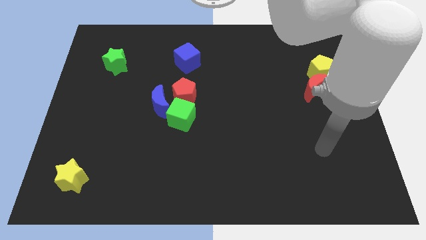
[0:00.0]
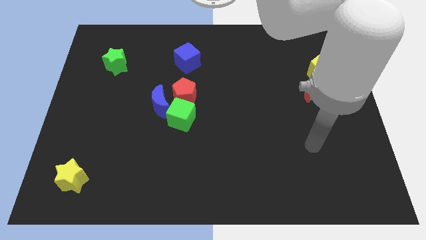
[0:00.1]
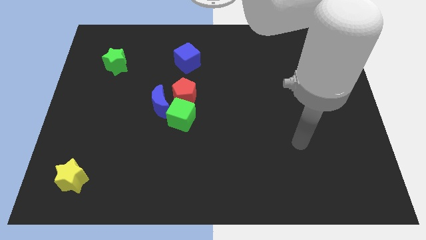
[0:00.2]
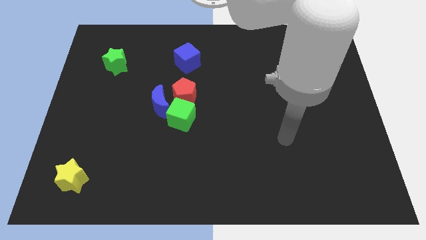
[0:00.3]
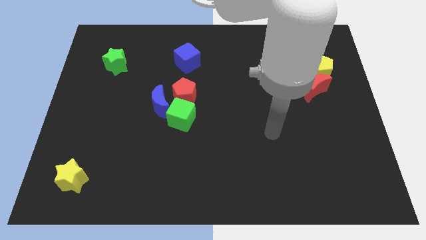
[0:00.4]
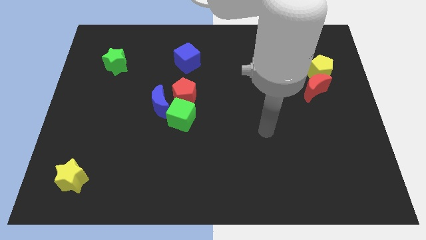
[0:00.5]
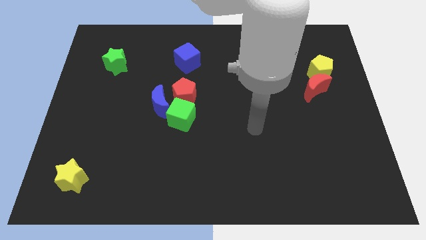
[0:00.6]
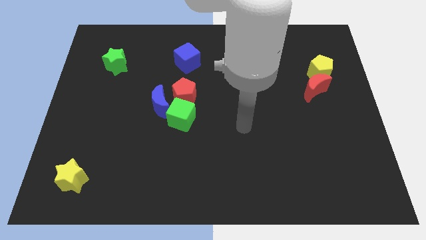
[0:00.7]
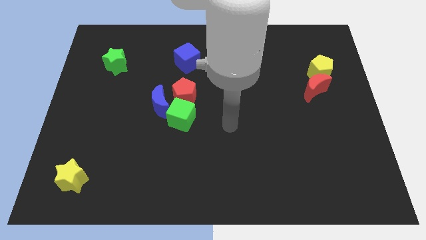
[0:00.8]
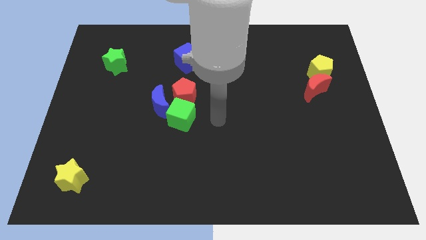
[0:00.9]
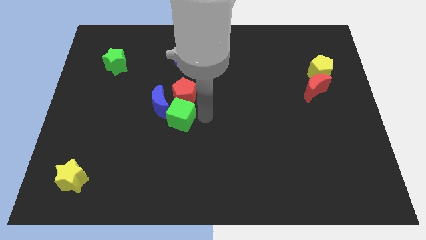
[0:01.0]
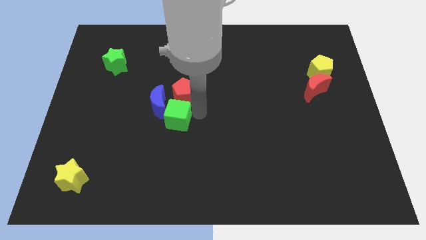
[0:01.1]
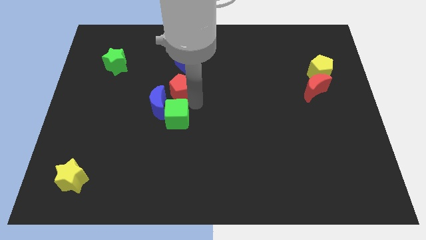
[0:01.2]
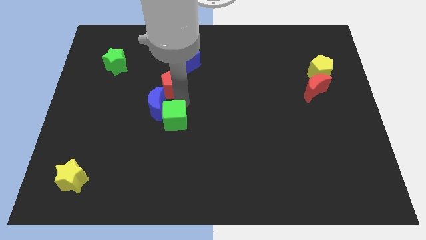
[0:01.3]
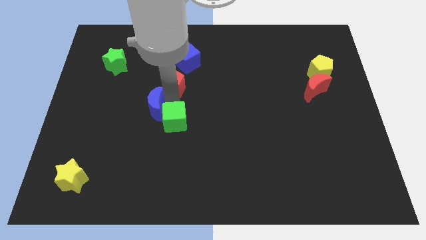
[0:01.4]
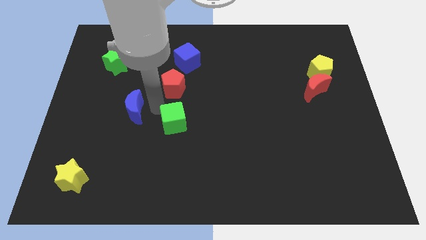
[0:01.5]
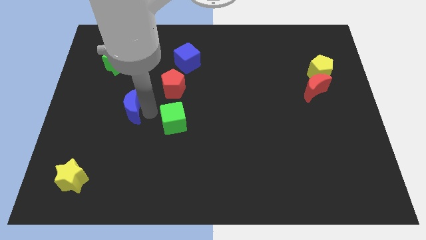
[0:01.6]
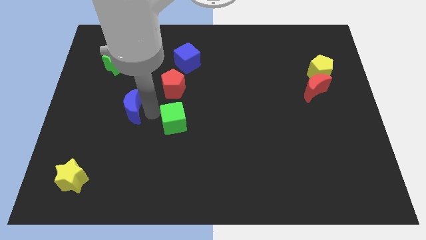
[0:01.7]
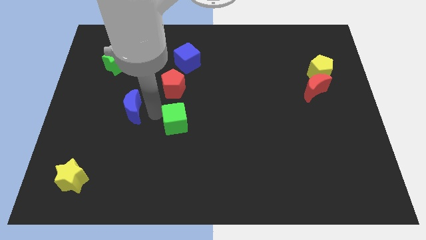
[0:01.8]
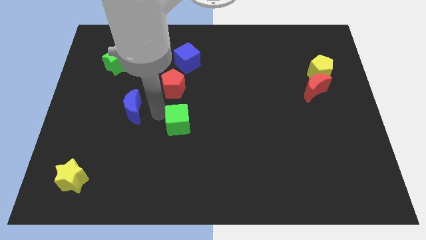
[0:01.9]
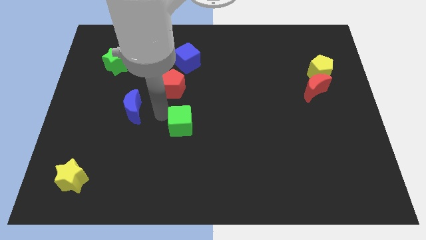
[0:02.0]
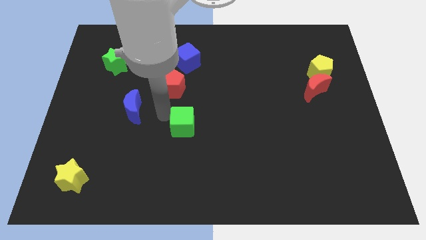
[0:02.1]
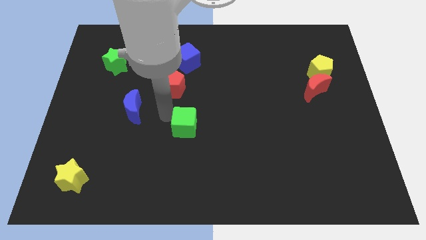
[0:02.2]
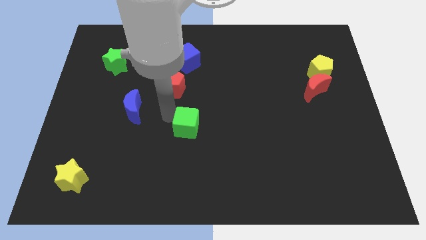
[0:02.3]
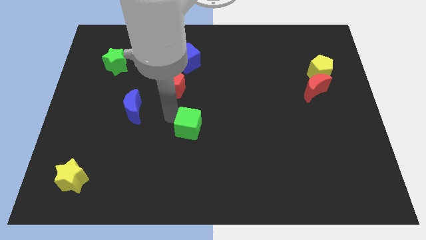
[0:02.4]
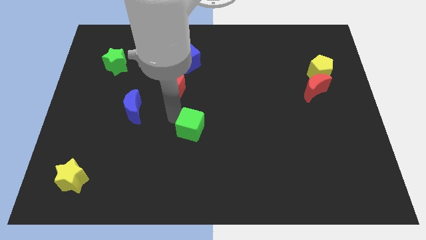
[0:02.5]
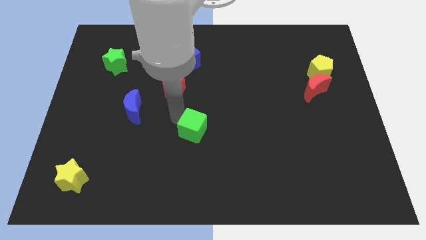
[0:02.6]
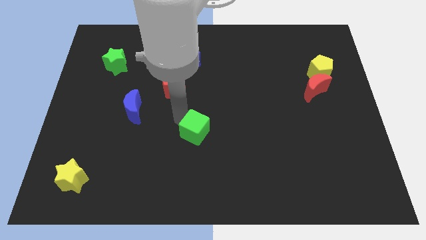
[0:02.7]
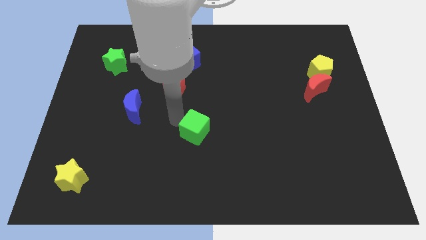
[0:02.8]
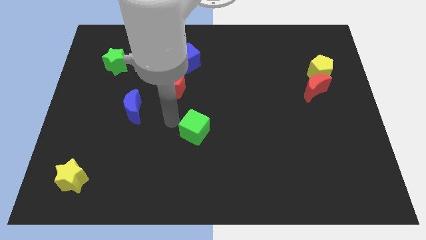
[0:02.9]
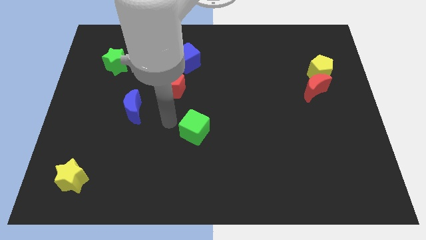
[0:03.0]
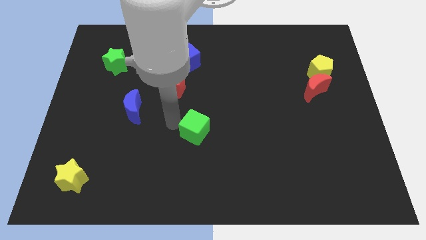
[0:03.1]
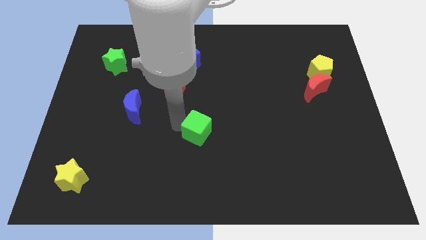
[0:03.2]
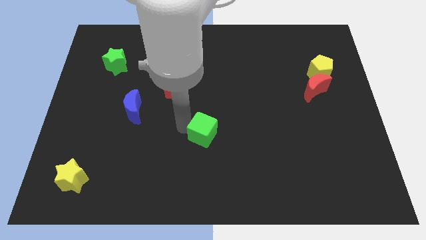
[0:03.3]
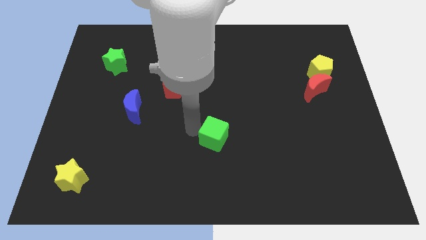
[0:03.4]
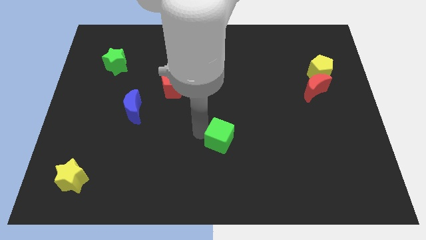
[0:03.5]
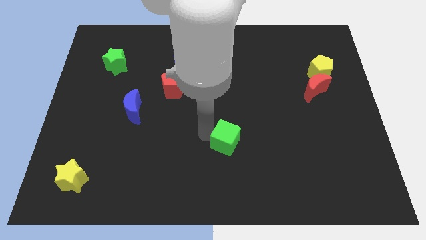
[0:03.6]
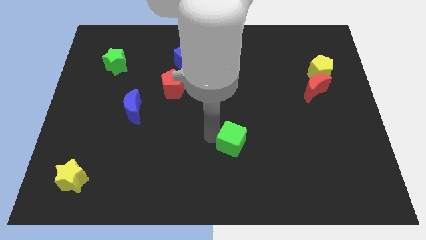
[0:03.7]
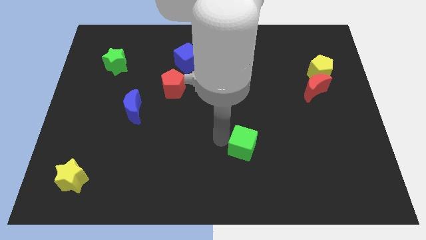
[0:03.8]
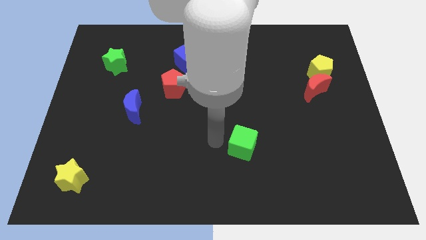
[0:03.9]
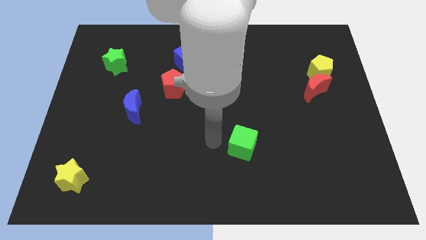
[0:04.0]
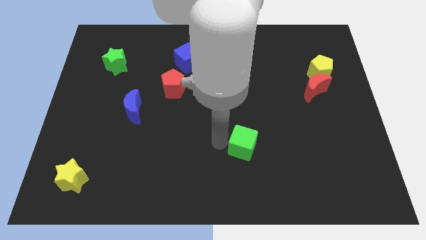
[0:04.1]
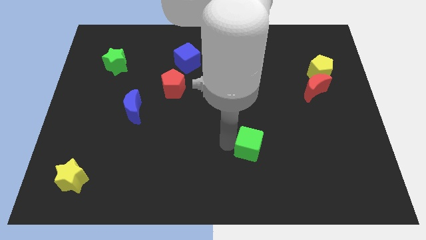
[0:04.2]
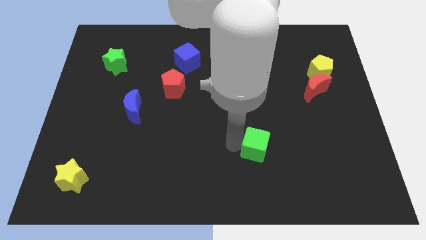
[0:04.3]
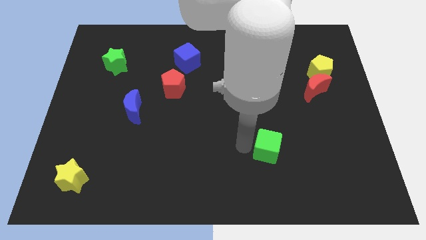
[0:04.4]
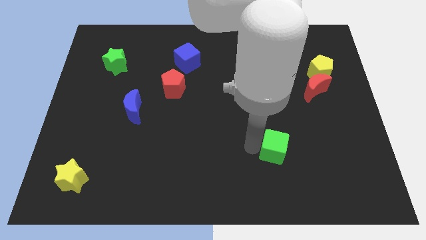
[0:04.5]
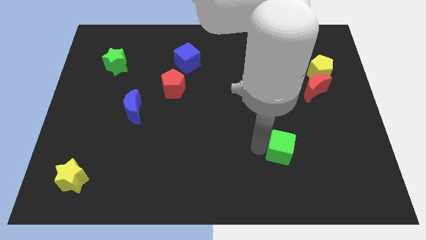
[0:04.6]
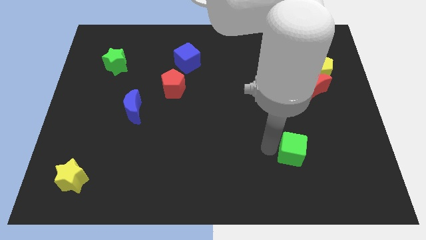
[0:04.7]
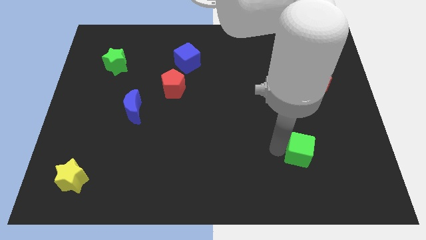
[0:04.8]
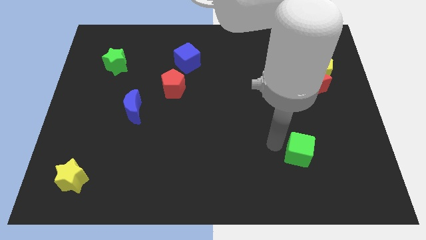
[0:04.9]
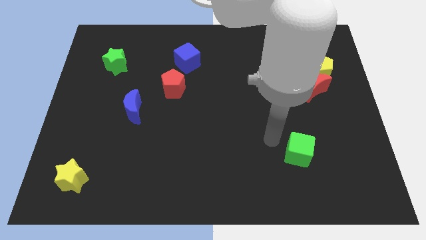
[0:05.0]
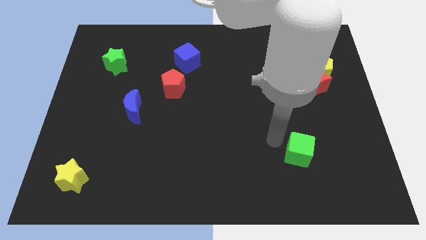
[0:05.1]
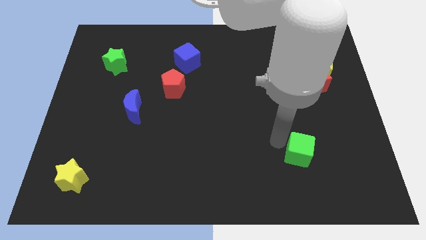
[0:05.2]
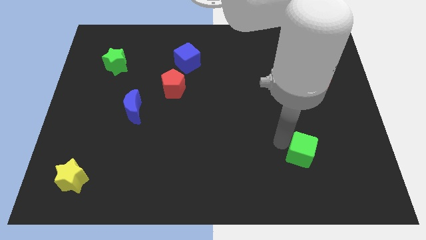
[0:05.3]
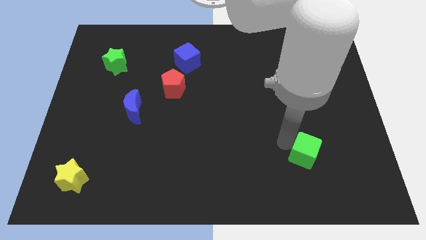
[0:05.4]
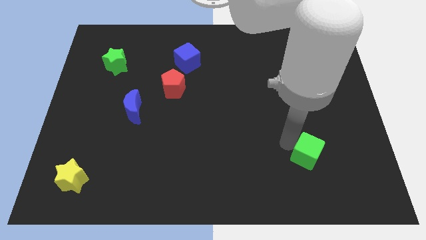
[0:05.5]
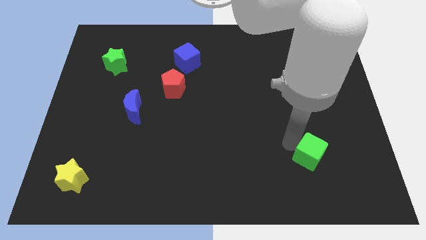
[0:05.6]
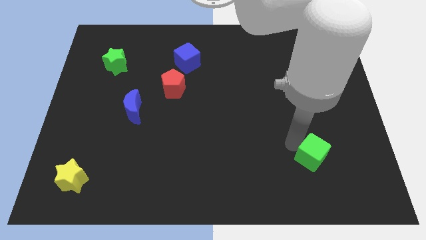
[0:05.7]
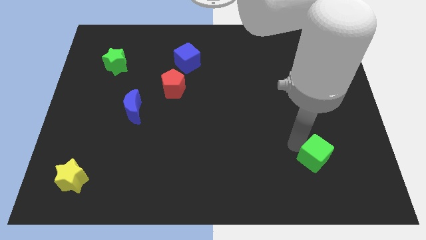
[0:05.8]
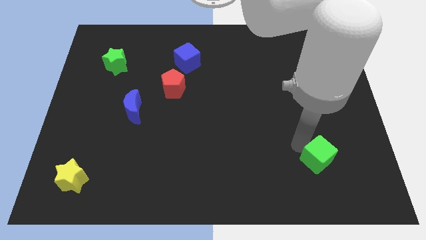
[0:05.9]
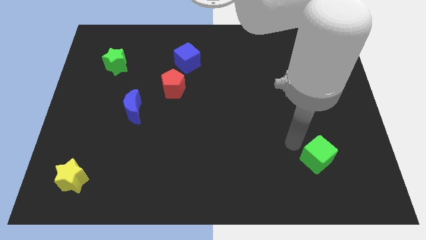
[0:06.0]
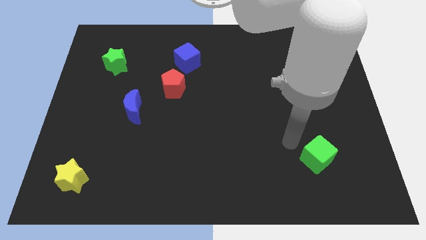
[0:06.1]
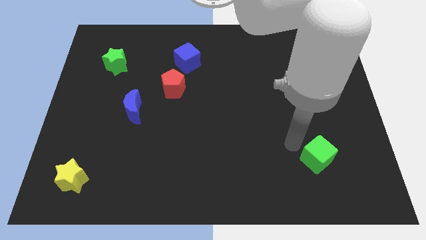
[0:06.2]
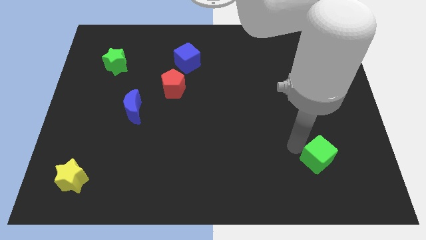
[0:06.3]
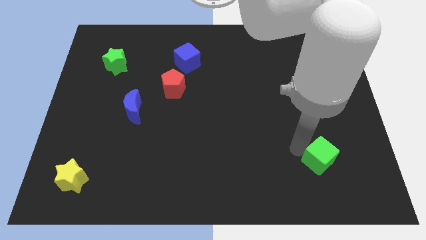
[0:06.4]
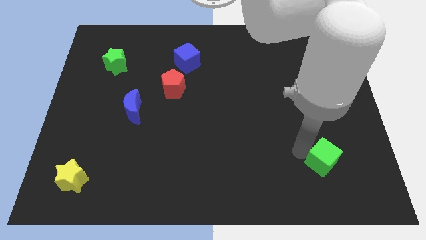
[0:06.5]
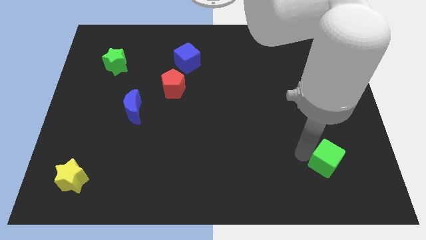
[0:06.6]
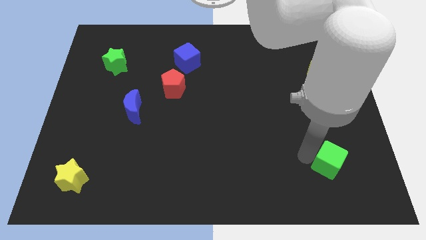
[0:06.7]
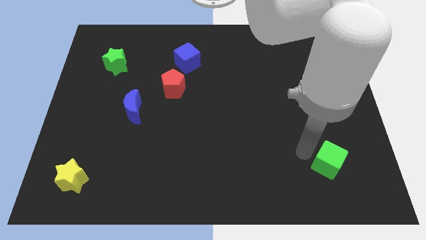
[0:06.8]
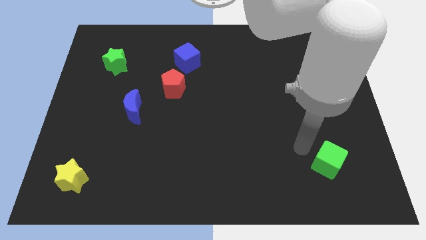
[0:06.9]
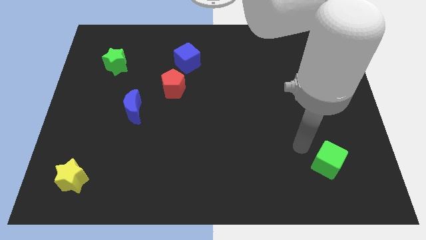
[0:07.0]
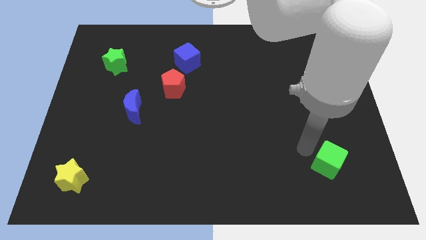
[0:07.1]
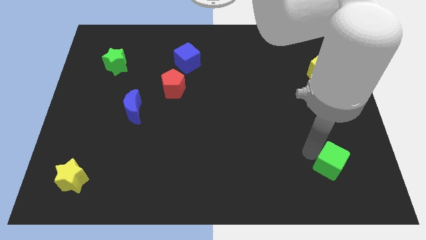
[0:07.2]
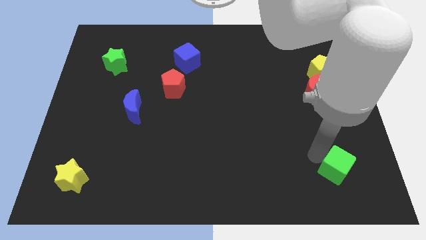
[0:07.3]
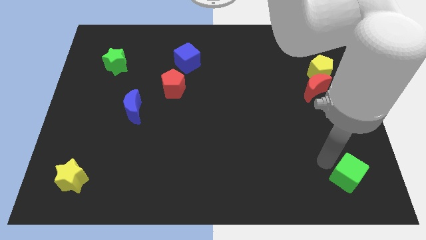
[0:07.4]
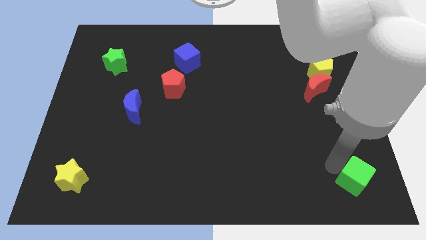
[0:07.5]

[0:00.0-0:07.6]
push the green cube to the bottom right
